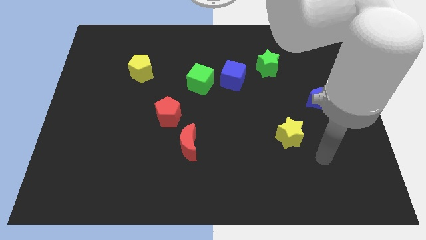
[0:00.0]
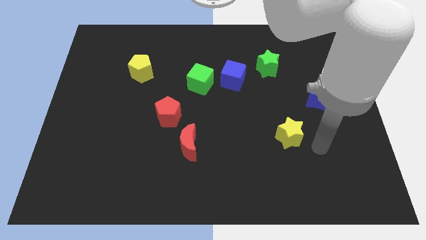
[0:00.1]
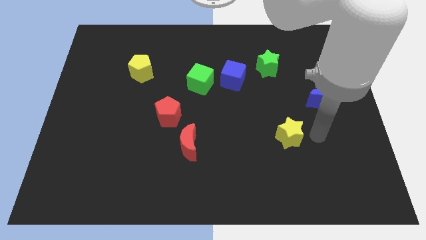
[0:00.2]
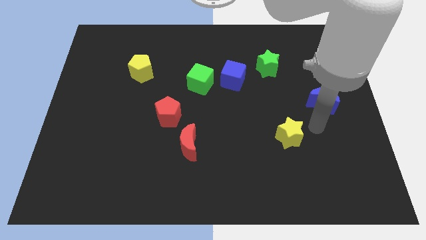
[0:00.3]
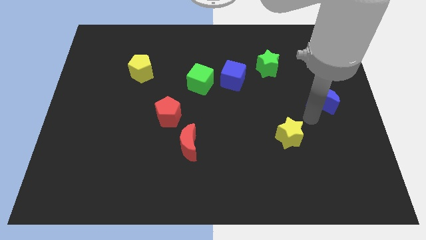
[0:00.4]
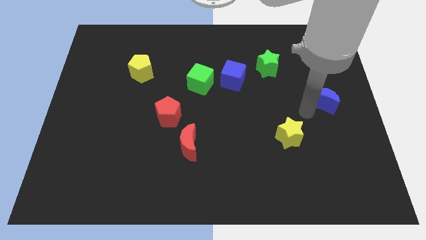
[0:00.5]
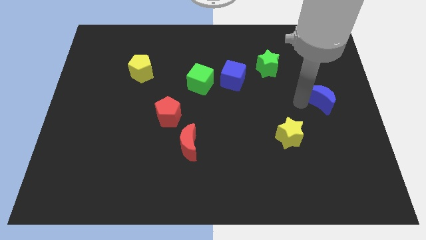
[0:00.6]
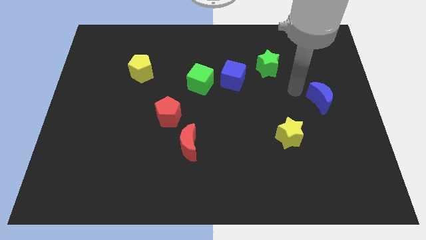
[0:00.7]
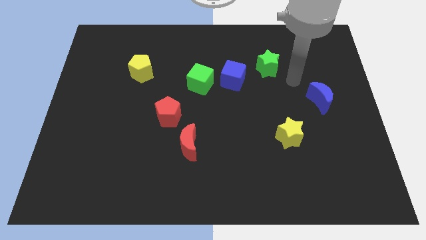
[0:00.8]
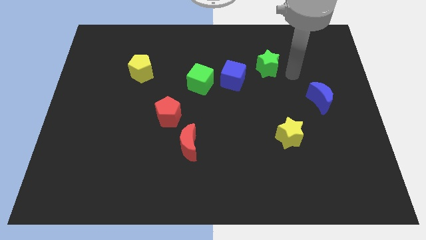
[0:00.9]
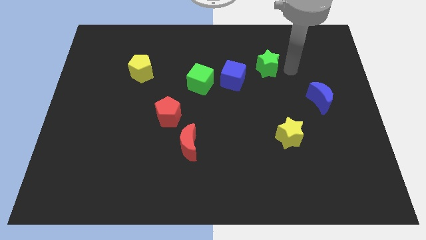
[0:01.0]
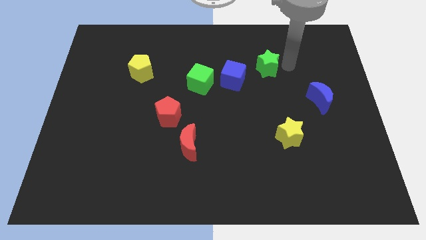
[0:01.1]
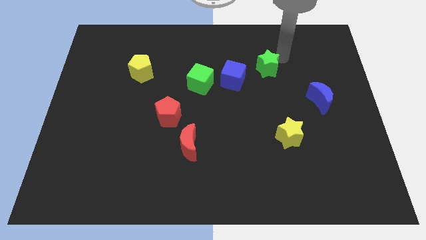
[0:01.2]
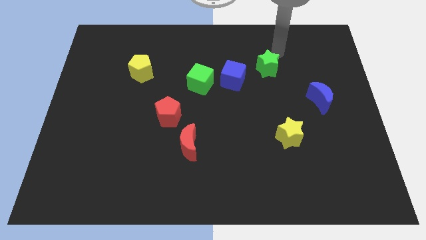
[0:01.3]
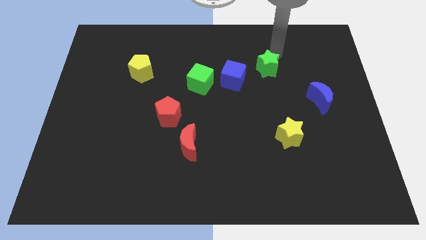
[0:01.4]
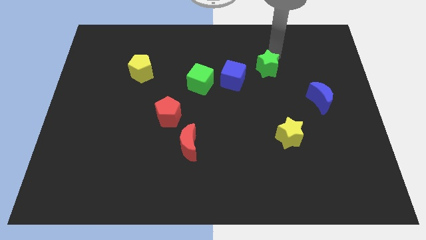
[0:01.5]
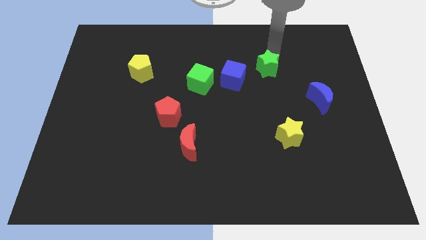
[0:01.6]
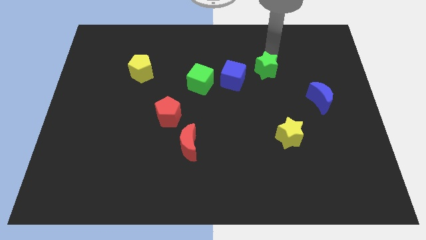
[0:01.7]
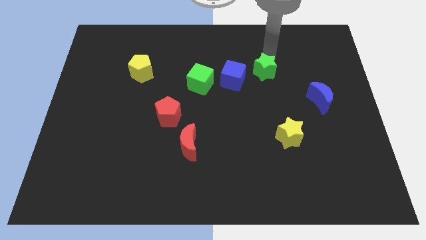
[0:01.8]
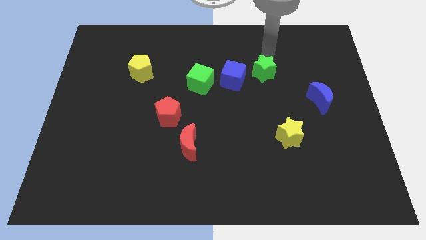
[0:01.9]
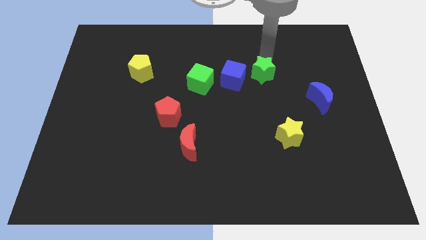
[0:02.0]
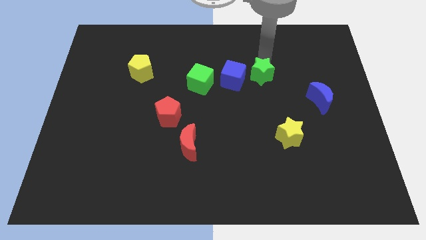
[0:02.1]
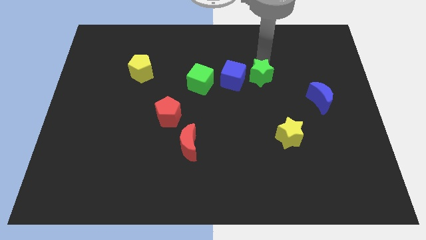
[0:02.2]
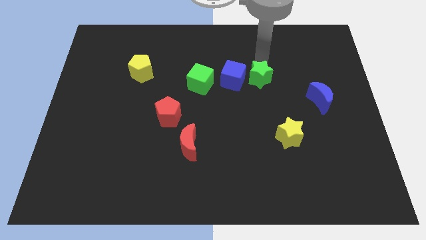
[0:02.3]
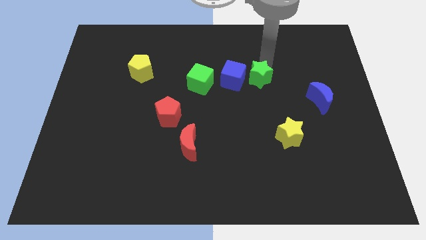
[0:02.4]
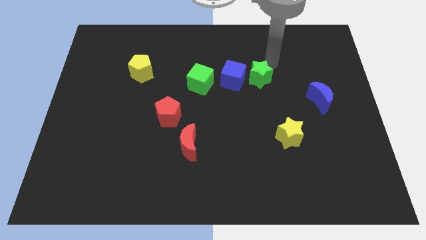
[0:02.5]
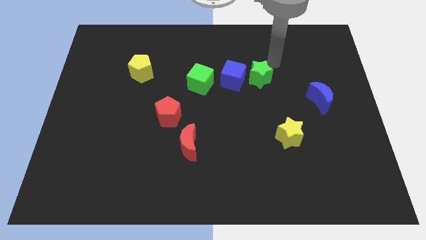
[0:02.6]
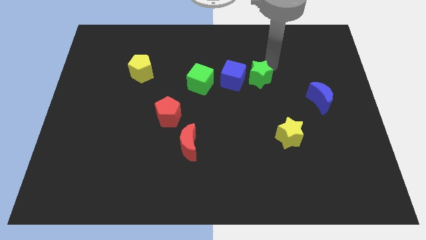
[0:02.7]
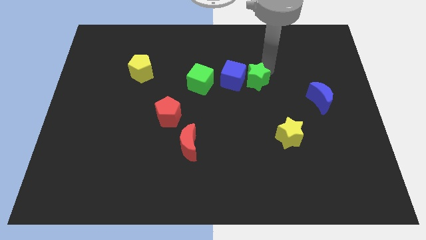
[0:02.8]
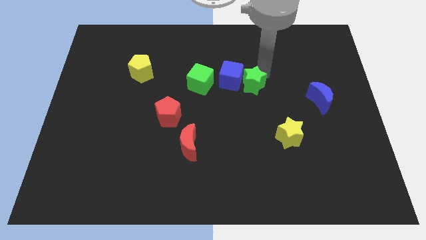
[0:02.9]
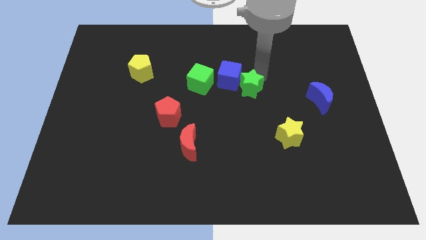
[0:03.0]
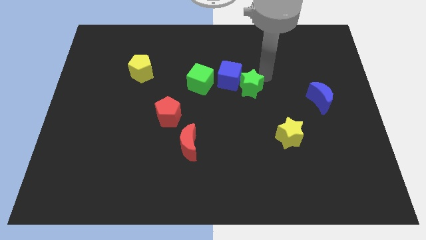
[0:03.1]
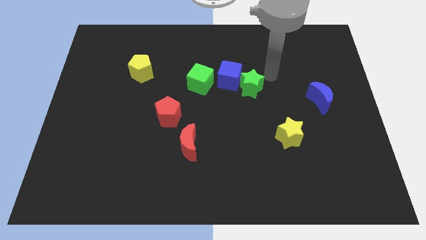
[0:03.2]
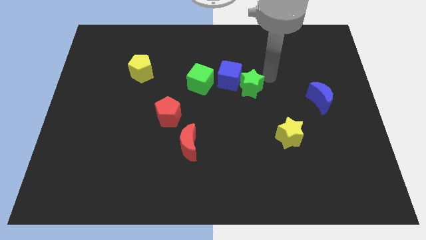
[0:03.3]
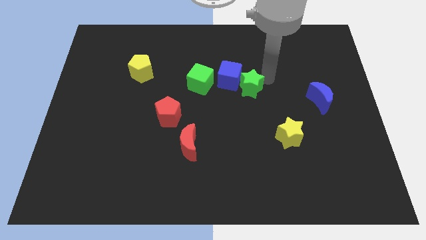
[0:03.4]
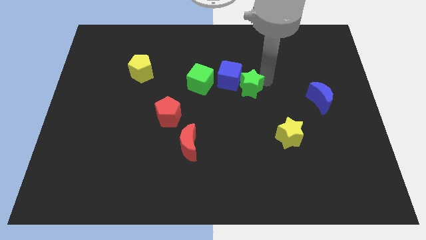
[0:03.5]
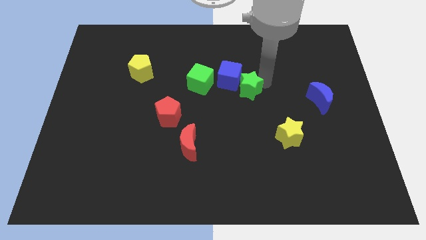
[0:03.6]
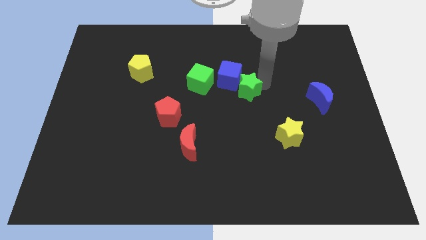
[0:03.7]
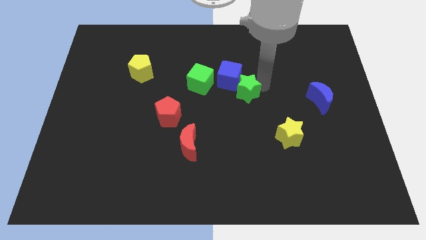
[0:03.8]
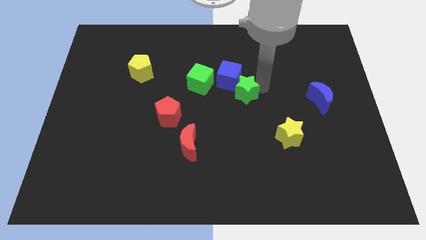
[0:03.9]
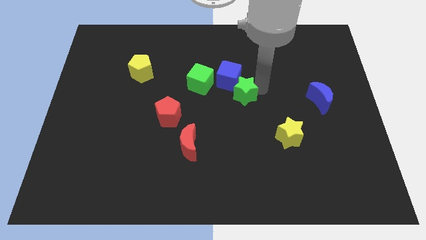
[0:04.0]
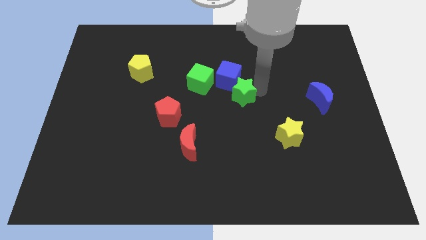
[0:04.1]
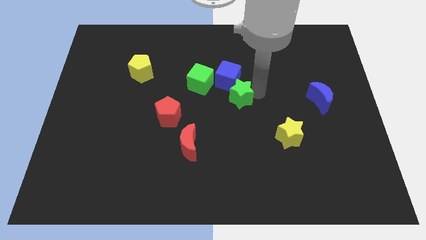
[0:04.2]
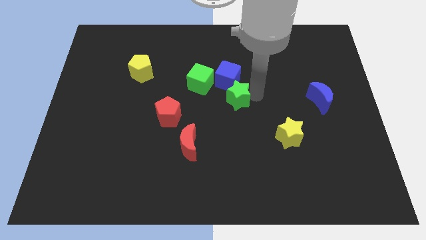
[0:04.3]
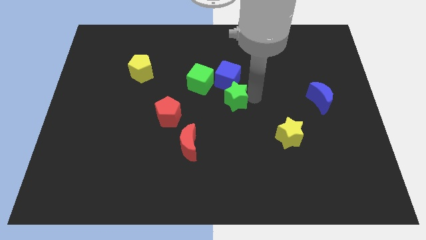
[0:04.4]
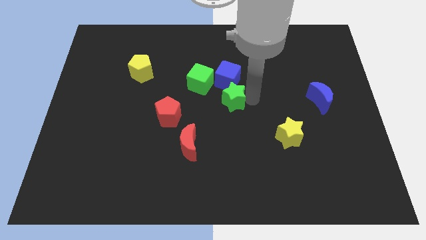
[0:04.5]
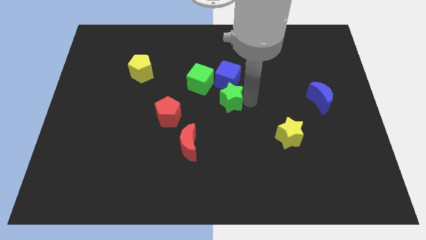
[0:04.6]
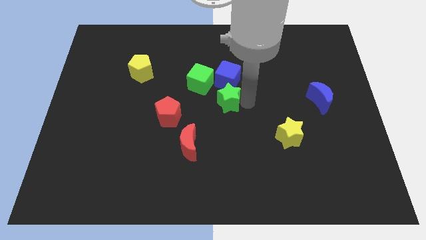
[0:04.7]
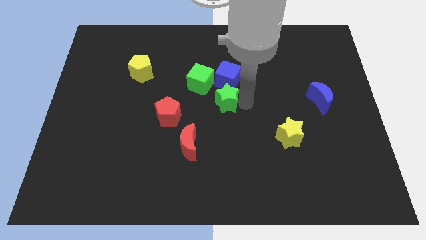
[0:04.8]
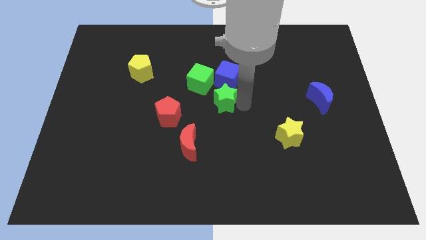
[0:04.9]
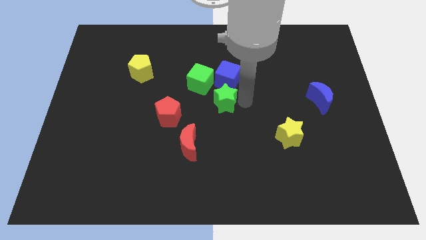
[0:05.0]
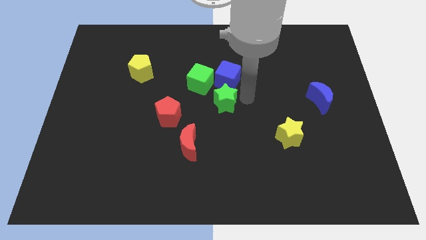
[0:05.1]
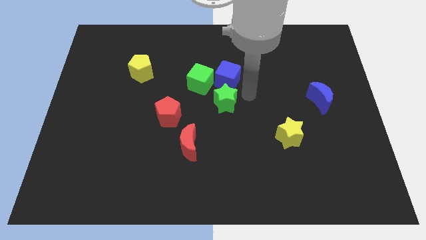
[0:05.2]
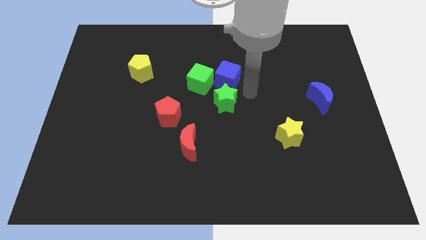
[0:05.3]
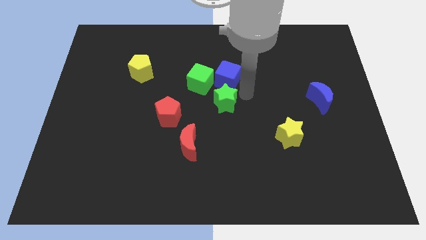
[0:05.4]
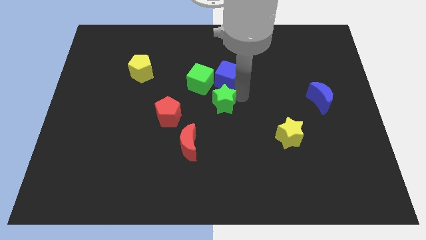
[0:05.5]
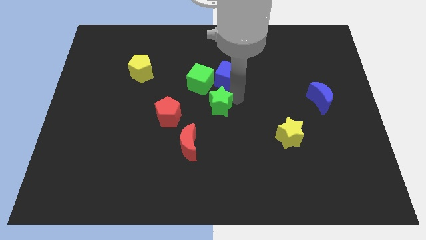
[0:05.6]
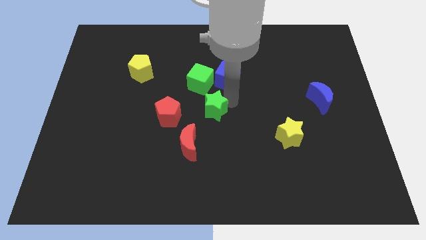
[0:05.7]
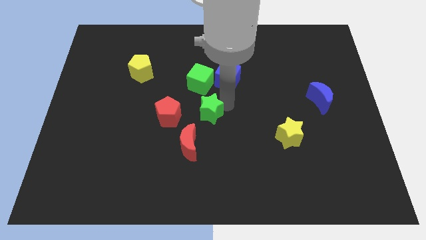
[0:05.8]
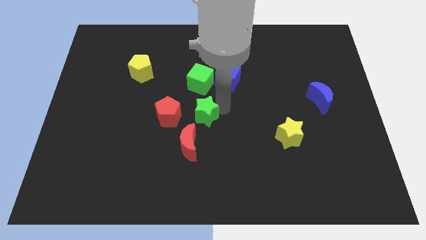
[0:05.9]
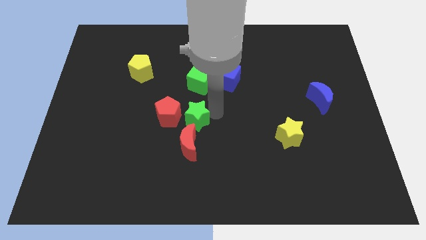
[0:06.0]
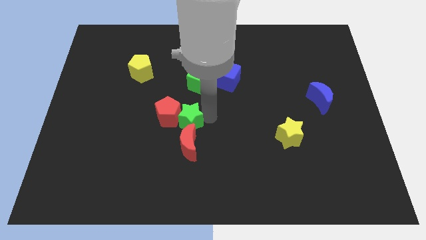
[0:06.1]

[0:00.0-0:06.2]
slide the green star to the red pentagon

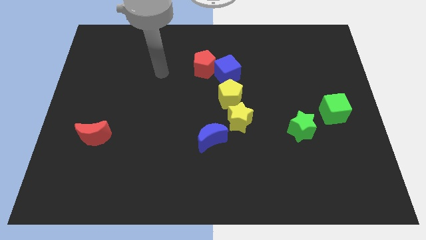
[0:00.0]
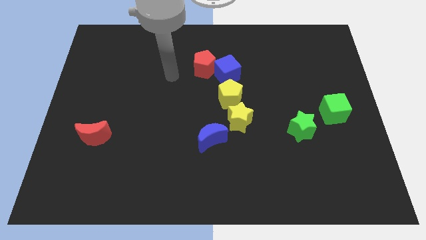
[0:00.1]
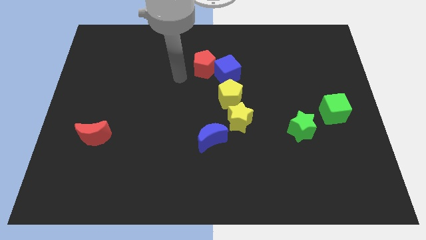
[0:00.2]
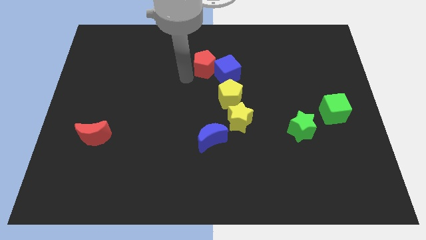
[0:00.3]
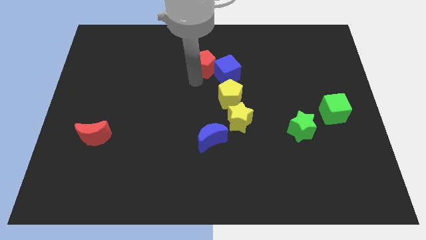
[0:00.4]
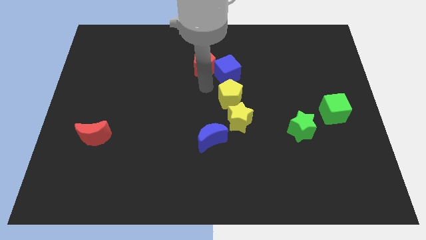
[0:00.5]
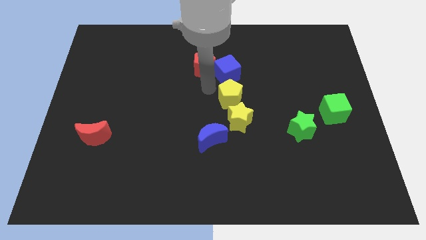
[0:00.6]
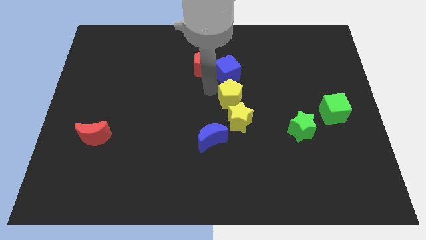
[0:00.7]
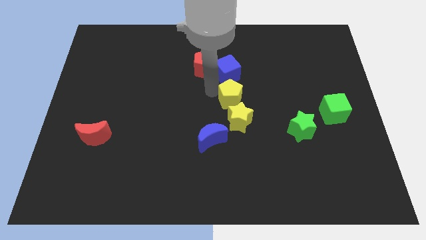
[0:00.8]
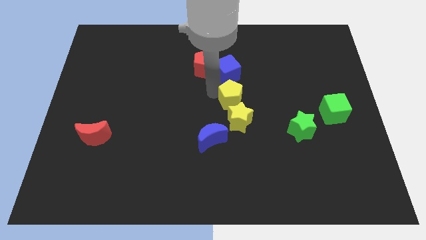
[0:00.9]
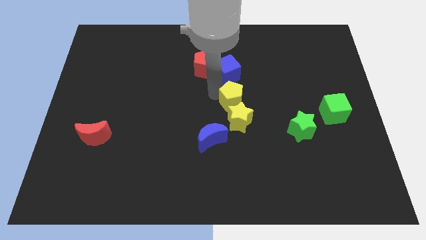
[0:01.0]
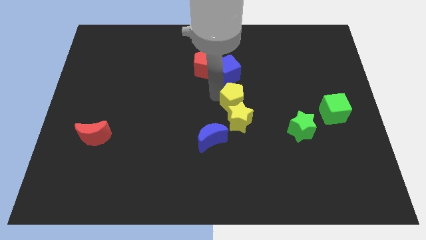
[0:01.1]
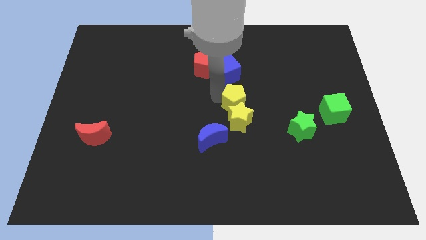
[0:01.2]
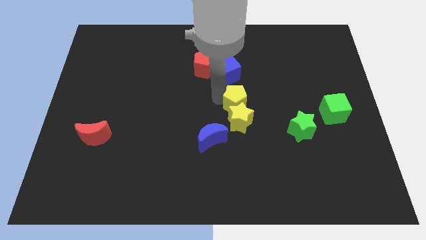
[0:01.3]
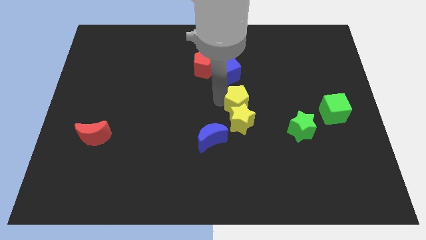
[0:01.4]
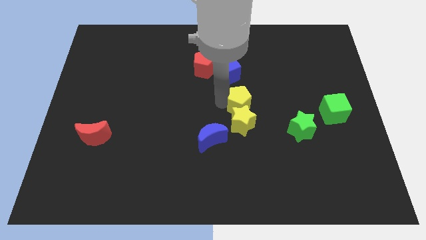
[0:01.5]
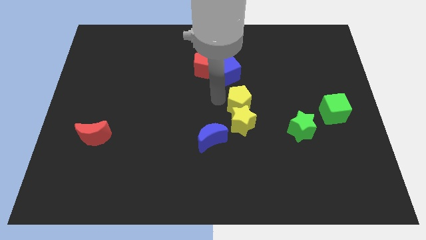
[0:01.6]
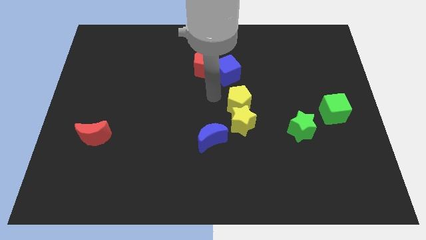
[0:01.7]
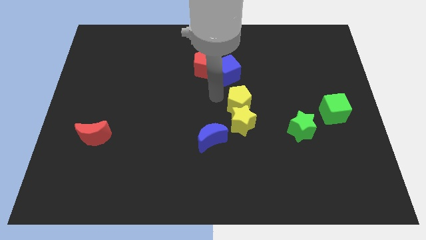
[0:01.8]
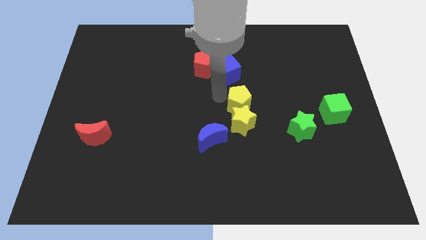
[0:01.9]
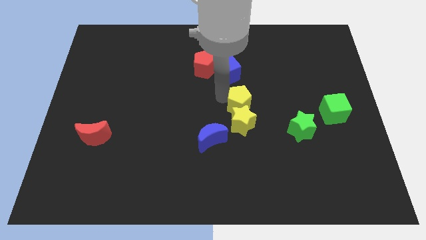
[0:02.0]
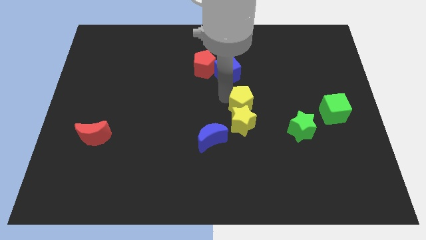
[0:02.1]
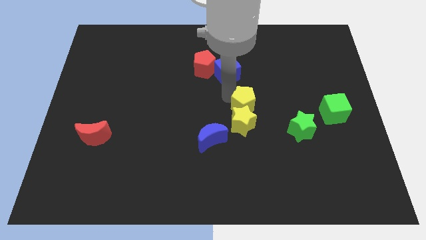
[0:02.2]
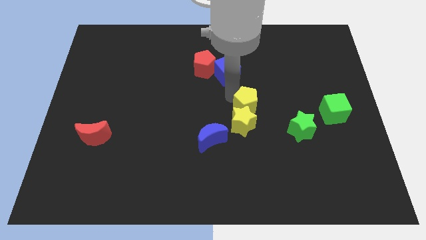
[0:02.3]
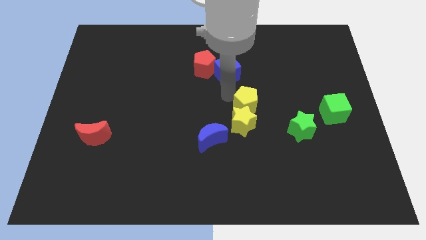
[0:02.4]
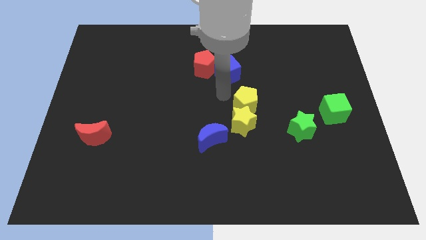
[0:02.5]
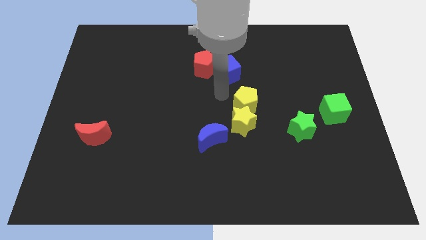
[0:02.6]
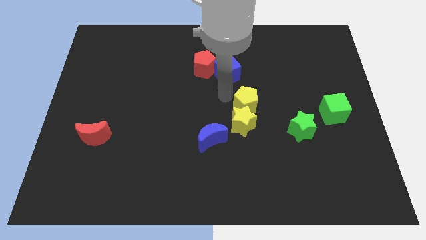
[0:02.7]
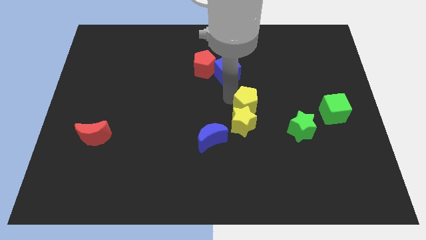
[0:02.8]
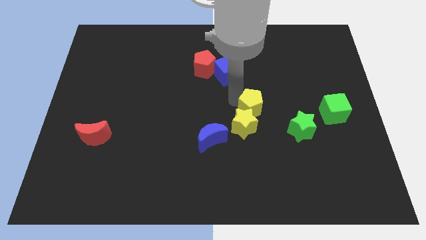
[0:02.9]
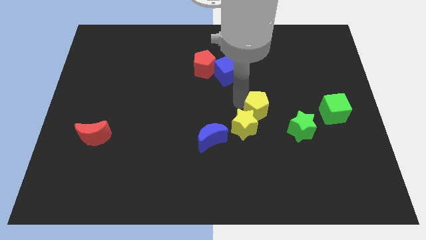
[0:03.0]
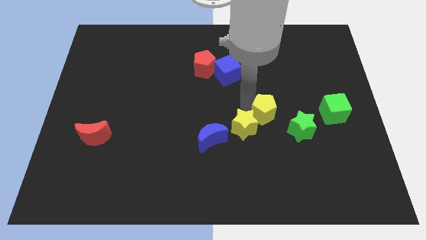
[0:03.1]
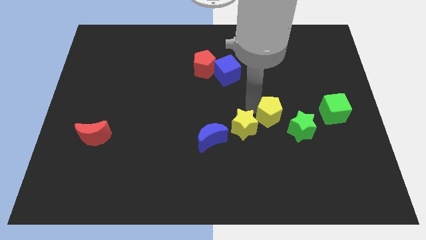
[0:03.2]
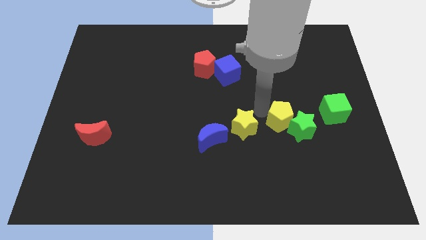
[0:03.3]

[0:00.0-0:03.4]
slide the yellow pentagon towards the green star
